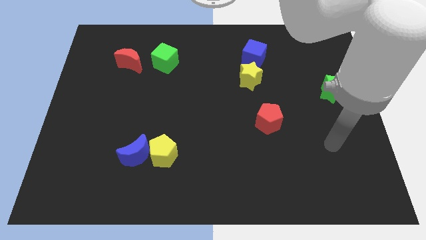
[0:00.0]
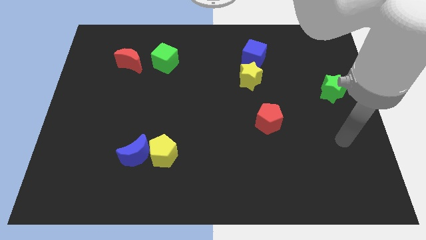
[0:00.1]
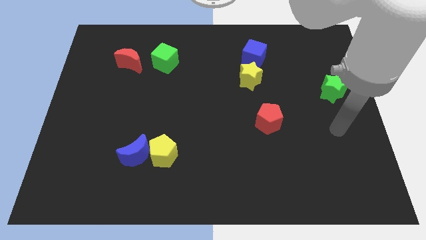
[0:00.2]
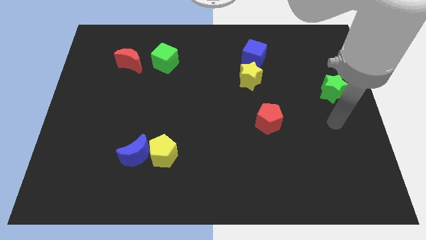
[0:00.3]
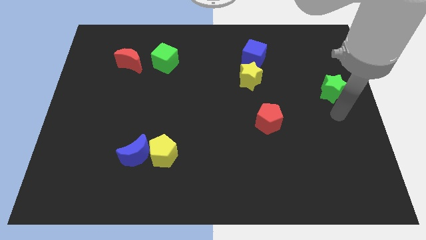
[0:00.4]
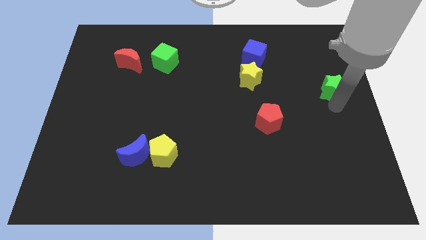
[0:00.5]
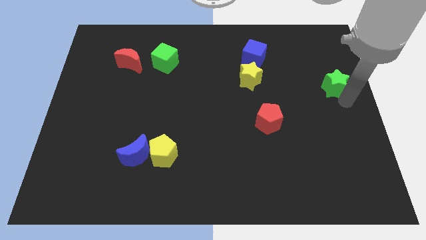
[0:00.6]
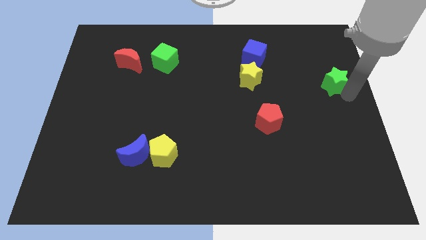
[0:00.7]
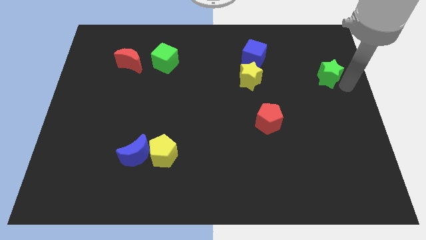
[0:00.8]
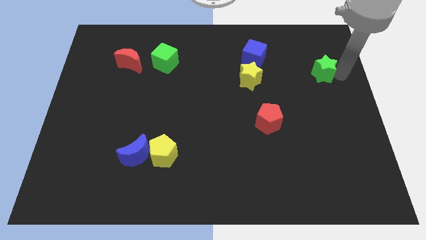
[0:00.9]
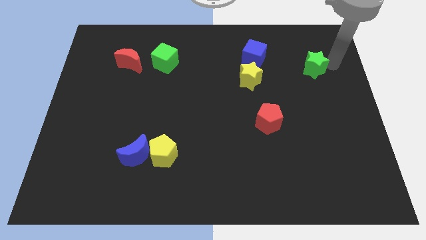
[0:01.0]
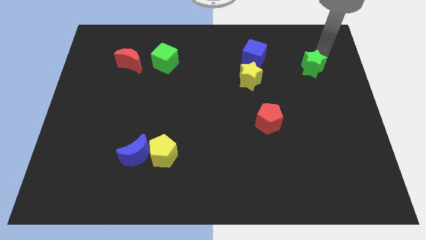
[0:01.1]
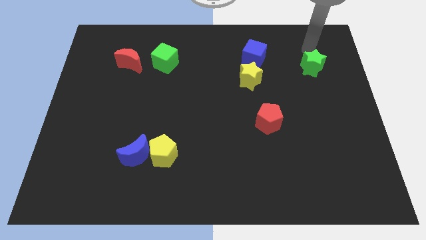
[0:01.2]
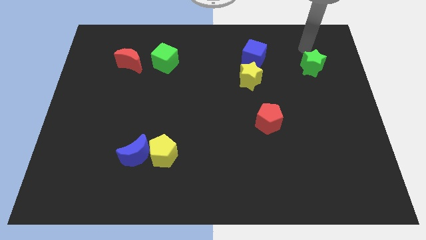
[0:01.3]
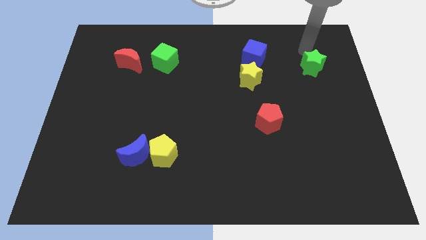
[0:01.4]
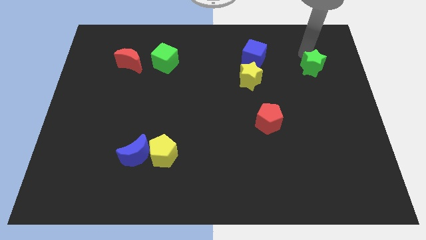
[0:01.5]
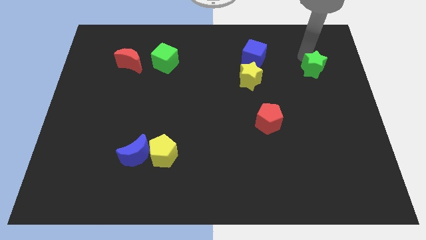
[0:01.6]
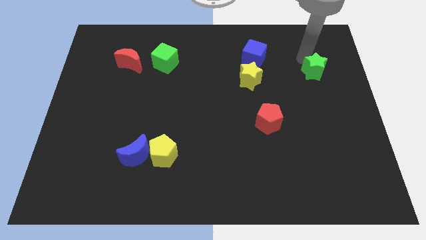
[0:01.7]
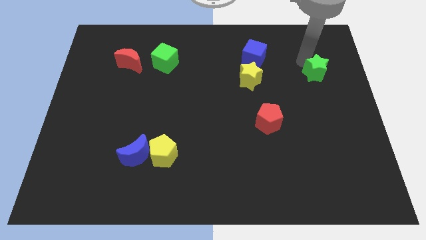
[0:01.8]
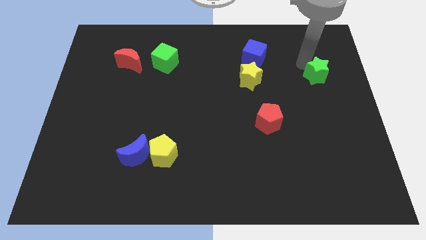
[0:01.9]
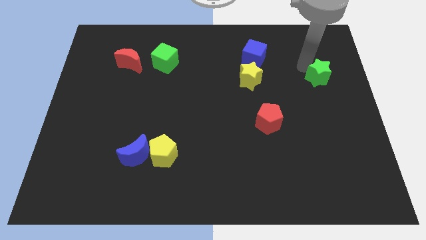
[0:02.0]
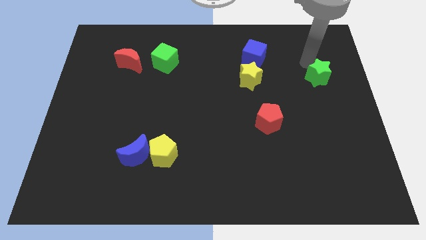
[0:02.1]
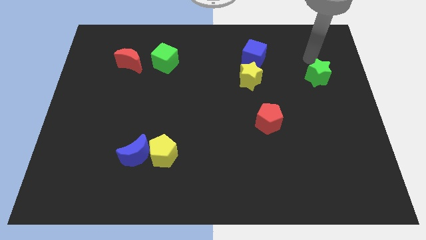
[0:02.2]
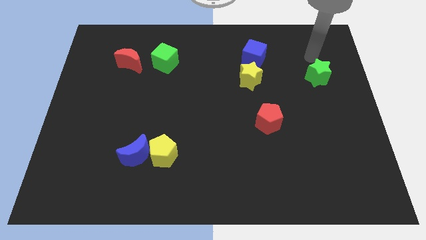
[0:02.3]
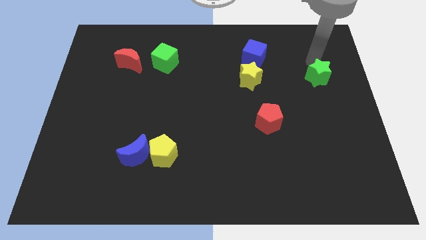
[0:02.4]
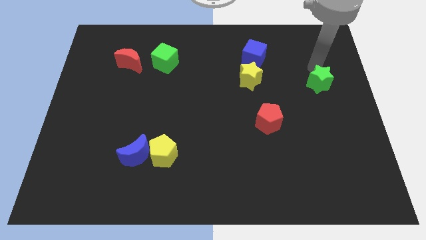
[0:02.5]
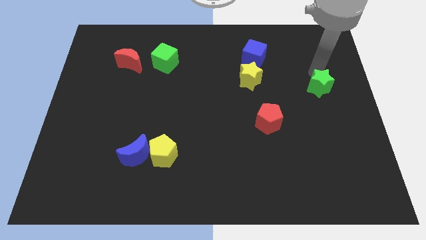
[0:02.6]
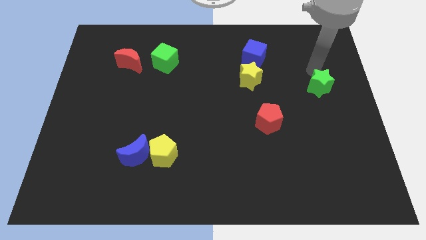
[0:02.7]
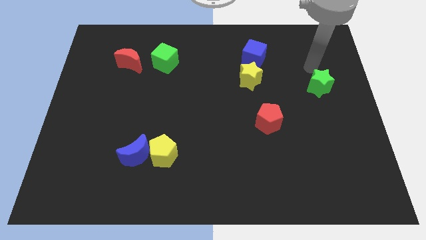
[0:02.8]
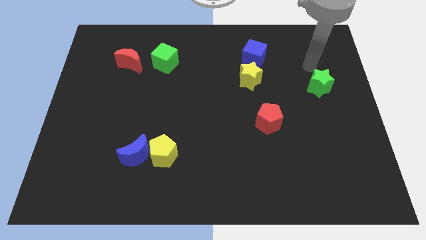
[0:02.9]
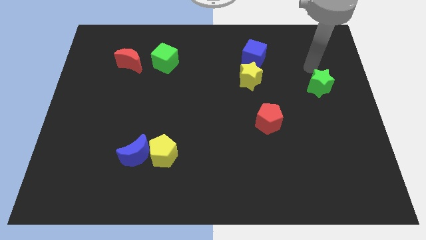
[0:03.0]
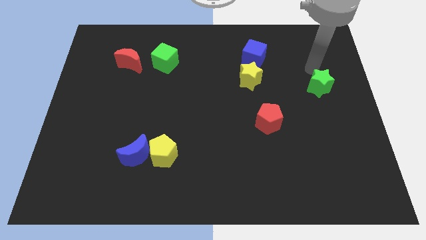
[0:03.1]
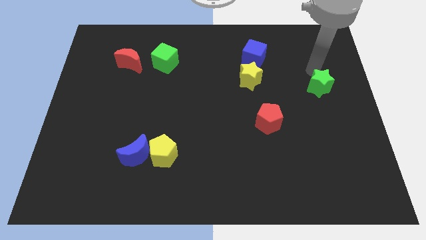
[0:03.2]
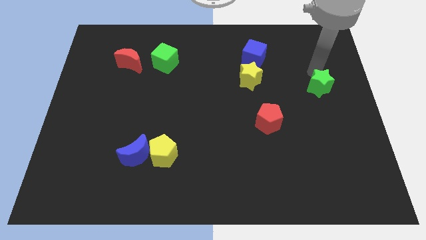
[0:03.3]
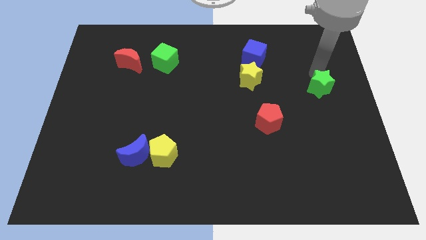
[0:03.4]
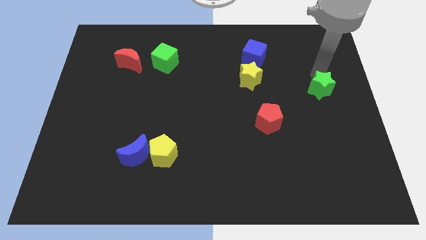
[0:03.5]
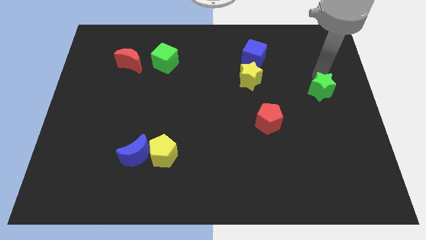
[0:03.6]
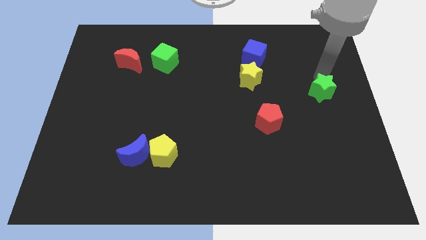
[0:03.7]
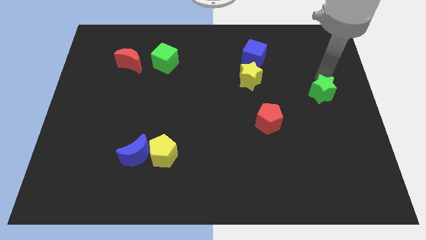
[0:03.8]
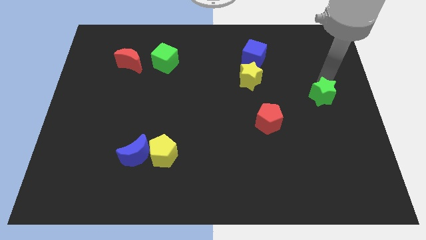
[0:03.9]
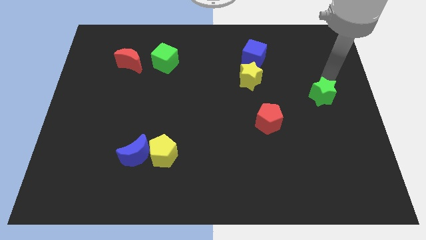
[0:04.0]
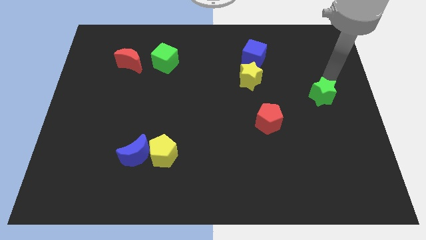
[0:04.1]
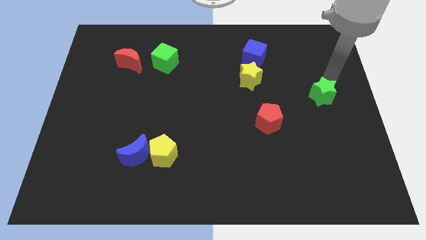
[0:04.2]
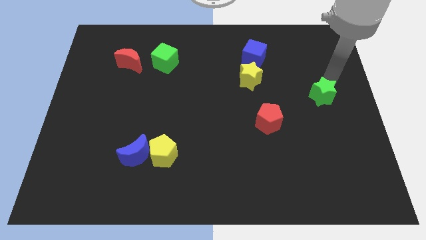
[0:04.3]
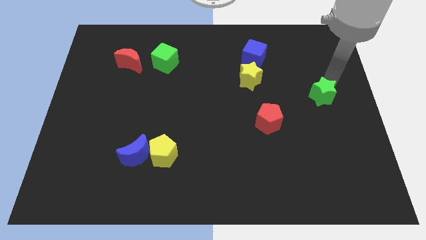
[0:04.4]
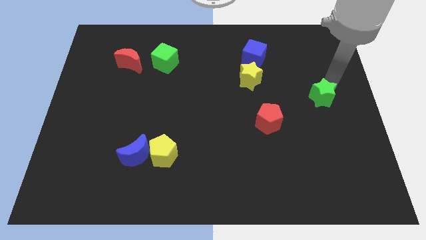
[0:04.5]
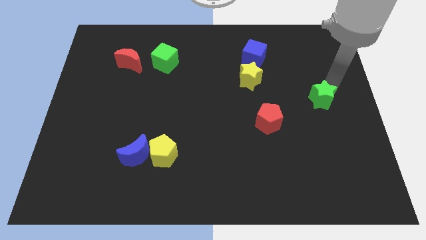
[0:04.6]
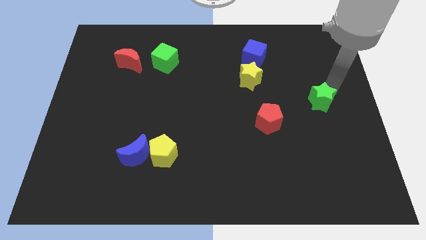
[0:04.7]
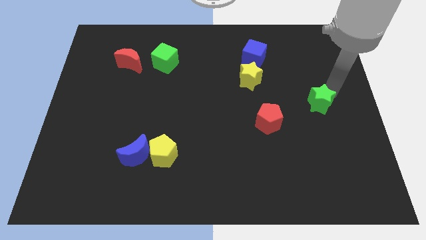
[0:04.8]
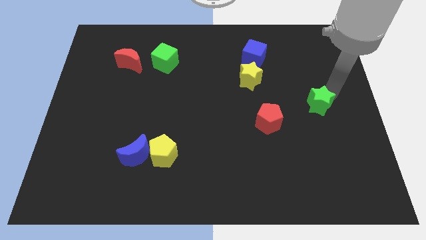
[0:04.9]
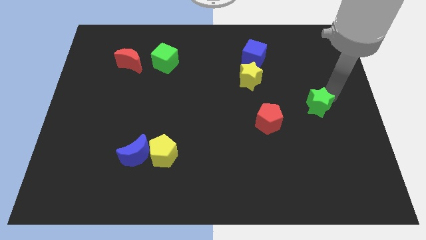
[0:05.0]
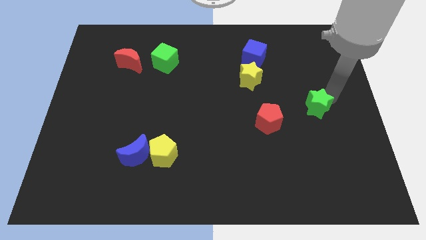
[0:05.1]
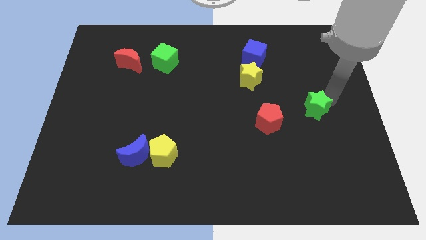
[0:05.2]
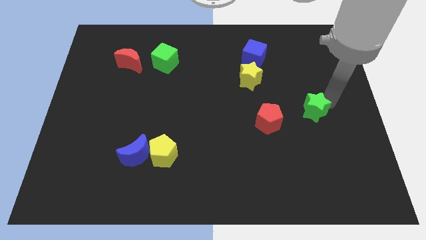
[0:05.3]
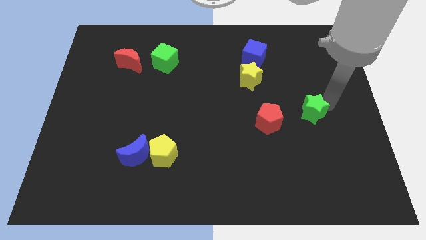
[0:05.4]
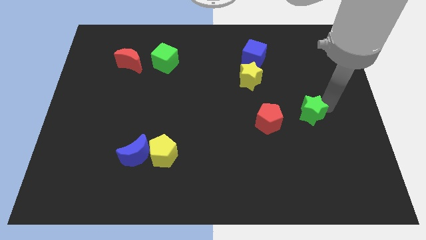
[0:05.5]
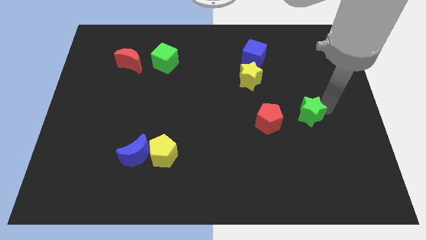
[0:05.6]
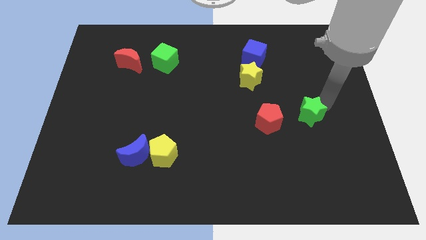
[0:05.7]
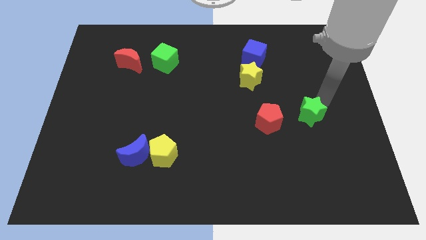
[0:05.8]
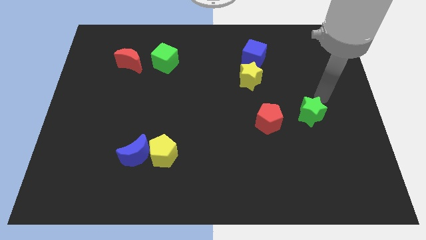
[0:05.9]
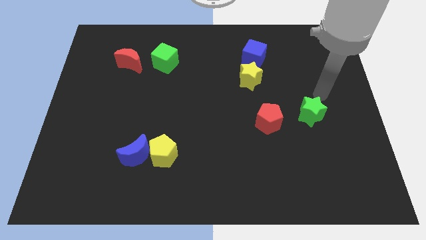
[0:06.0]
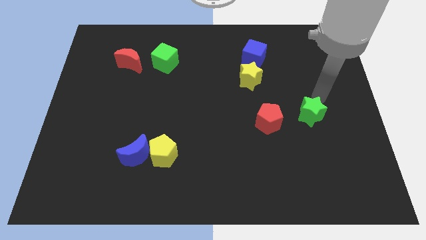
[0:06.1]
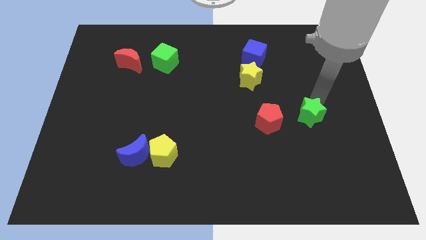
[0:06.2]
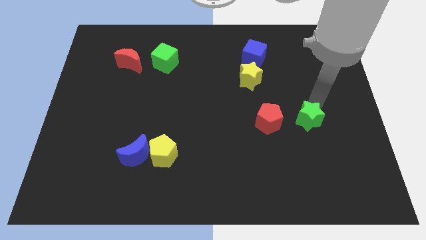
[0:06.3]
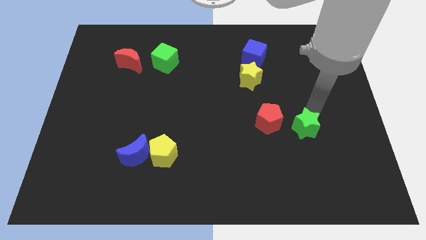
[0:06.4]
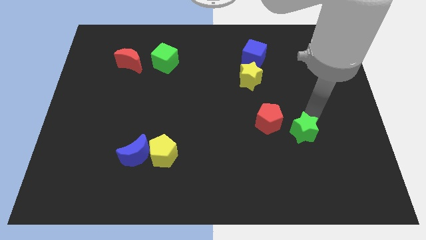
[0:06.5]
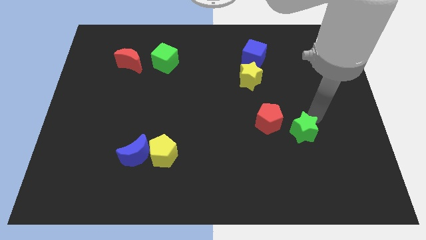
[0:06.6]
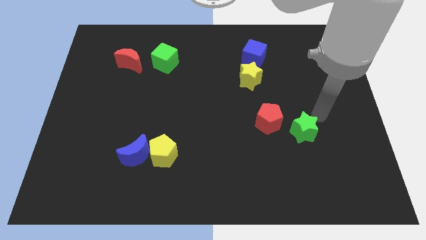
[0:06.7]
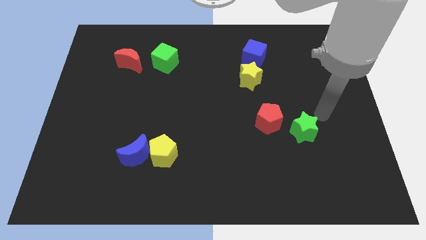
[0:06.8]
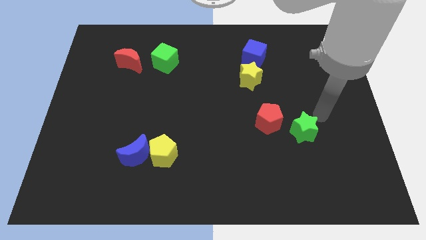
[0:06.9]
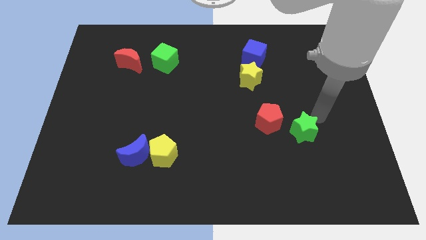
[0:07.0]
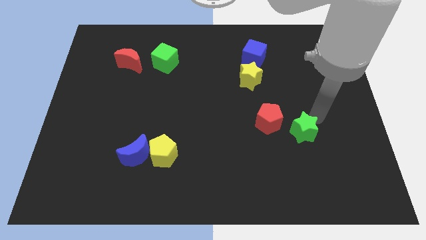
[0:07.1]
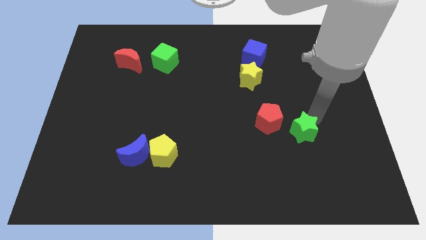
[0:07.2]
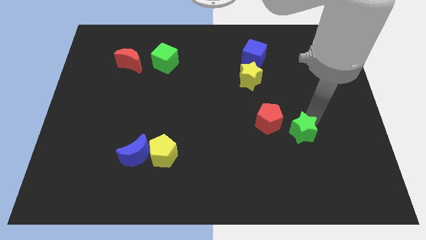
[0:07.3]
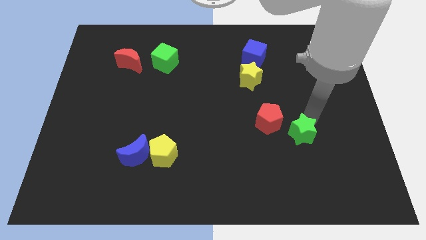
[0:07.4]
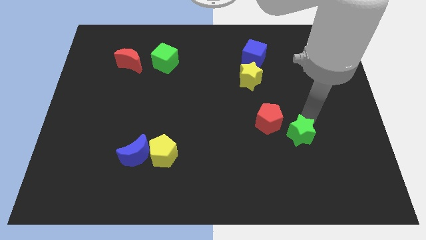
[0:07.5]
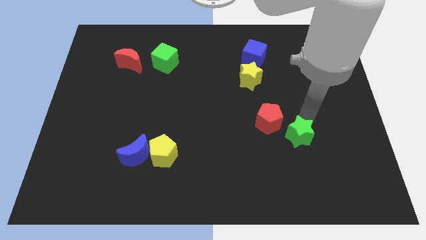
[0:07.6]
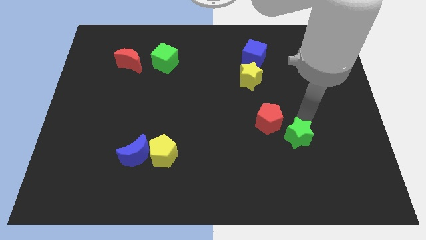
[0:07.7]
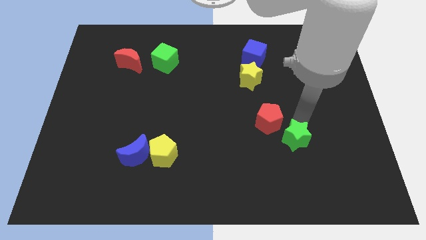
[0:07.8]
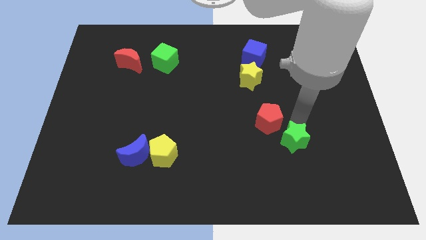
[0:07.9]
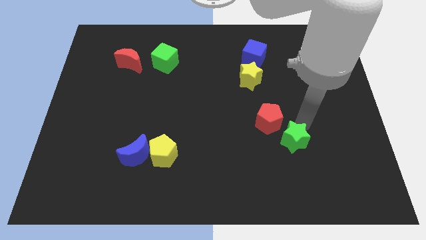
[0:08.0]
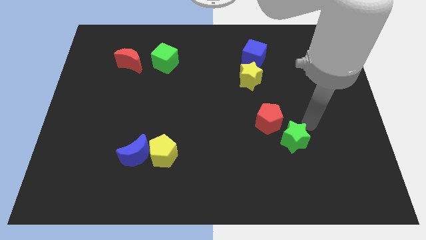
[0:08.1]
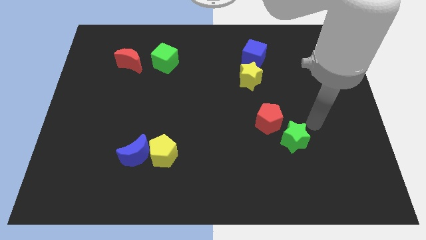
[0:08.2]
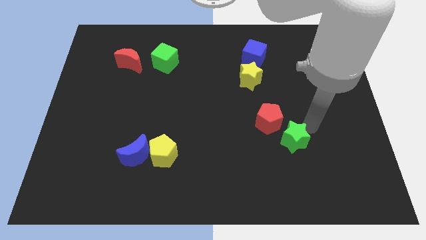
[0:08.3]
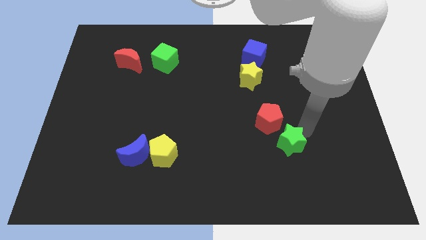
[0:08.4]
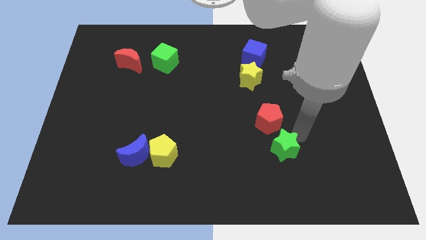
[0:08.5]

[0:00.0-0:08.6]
move the green star downwards and then left
